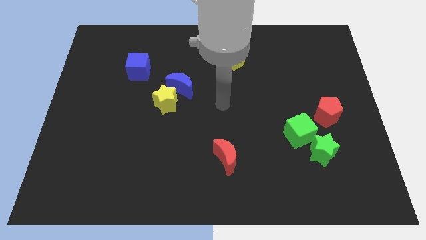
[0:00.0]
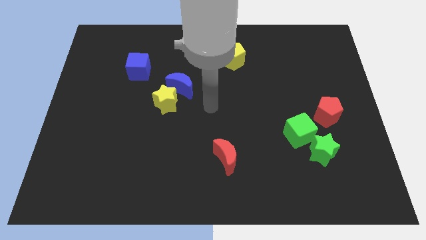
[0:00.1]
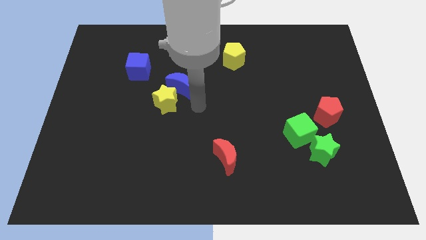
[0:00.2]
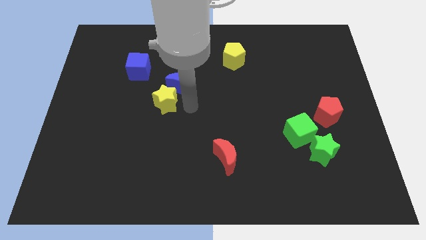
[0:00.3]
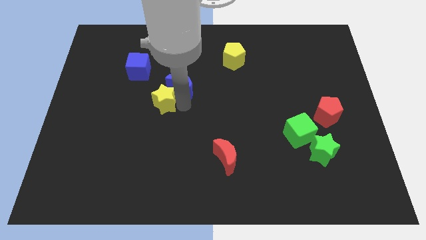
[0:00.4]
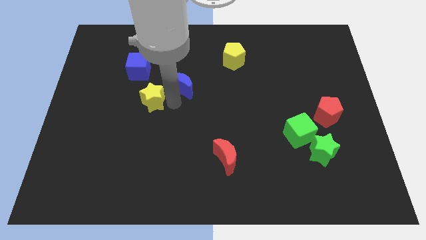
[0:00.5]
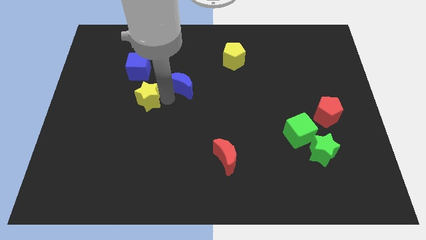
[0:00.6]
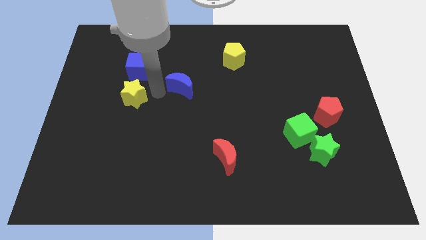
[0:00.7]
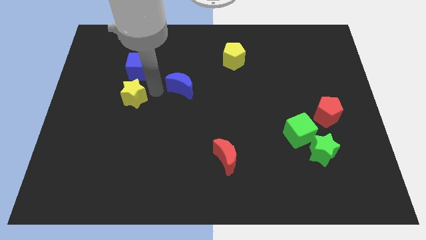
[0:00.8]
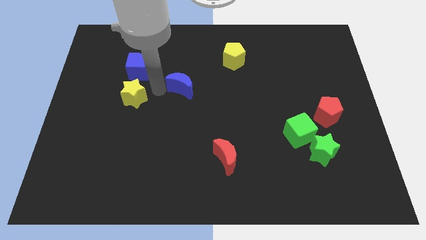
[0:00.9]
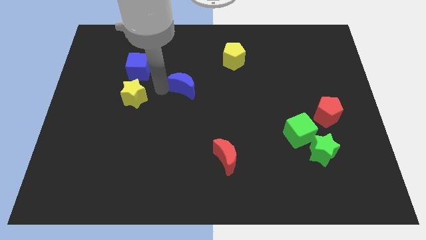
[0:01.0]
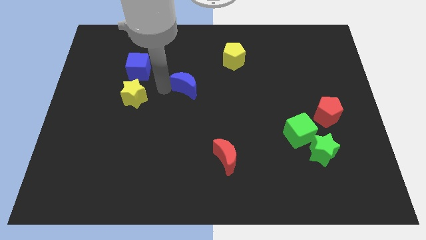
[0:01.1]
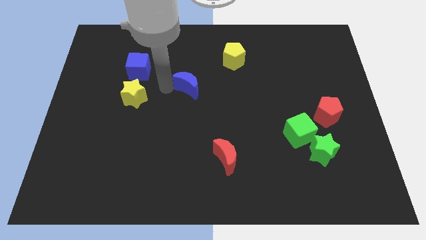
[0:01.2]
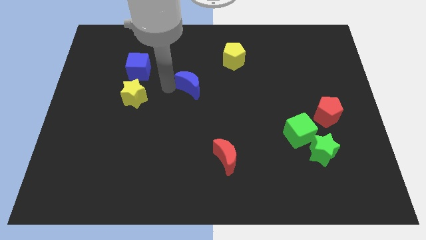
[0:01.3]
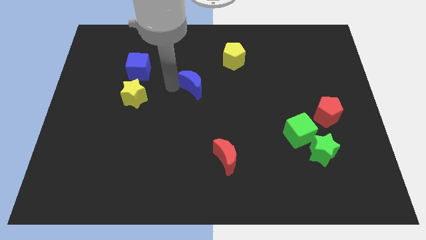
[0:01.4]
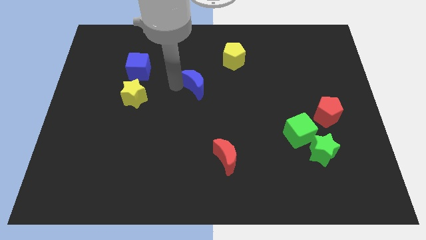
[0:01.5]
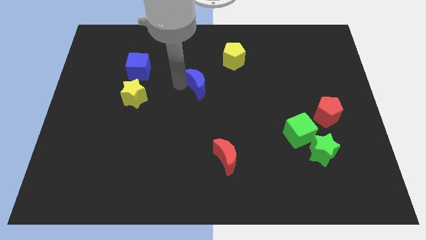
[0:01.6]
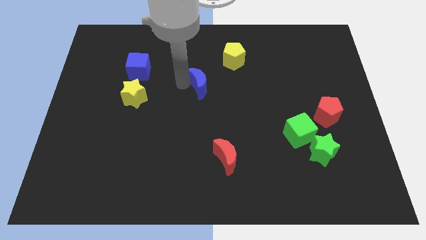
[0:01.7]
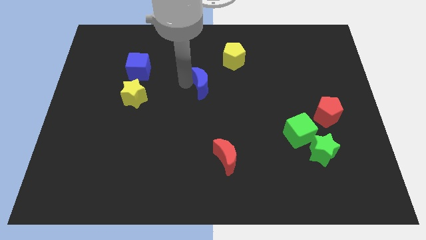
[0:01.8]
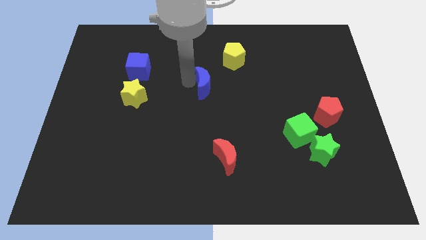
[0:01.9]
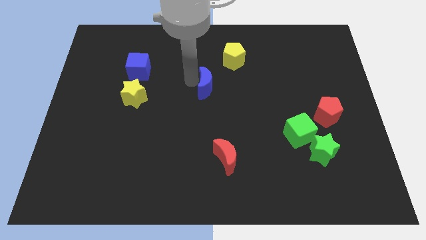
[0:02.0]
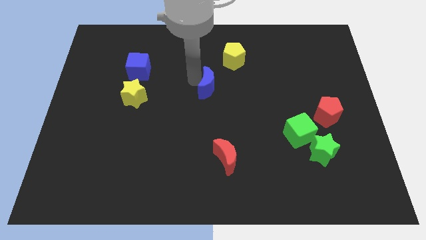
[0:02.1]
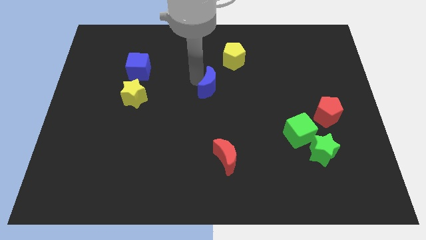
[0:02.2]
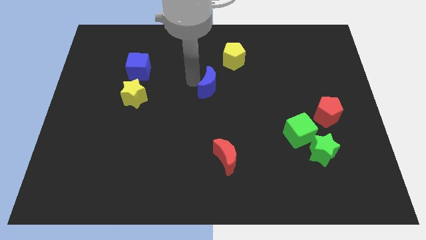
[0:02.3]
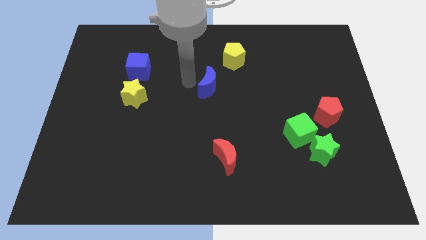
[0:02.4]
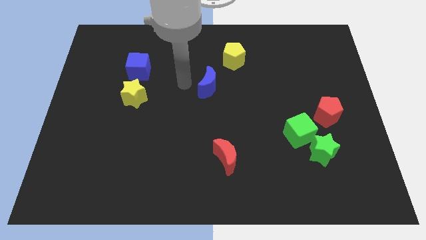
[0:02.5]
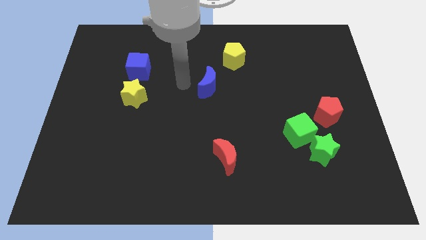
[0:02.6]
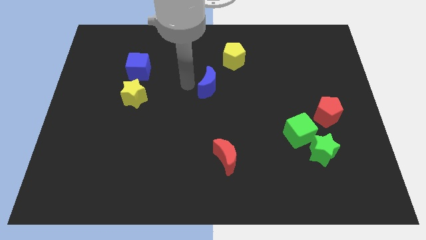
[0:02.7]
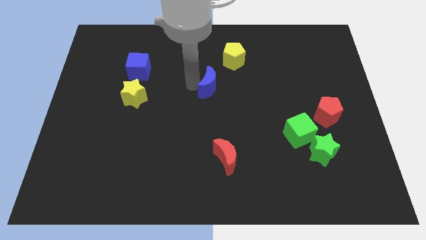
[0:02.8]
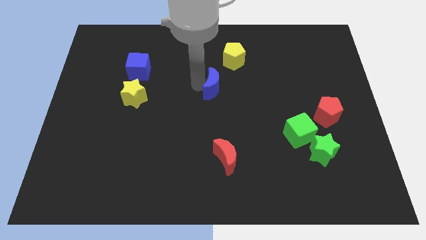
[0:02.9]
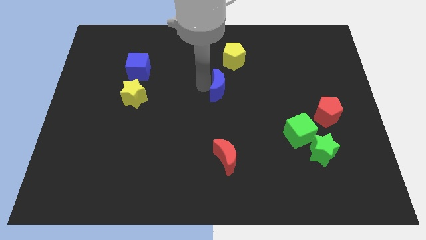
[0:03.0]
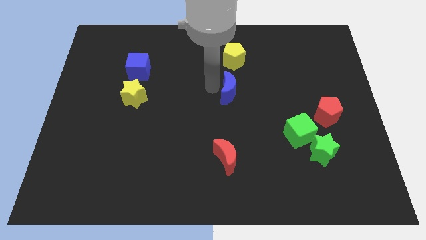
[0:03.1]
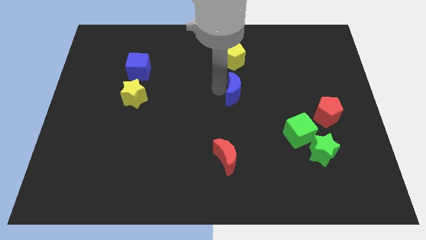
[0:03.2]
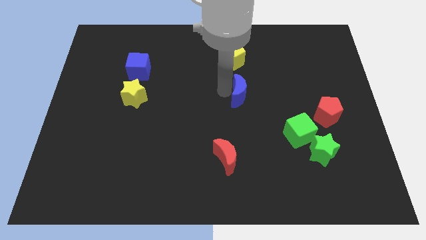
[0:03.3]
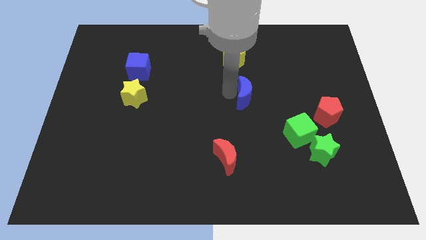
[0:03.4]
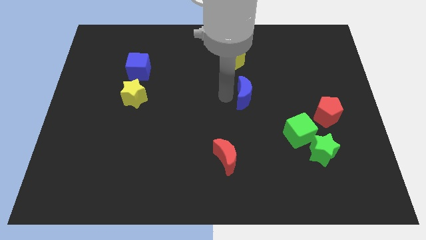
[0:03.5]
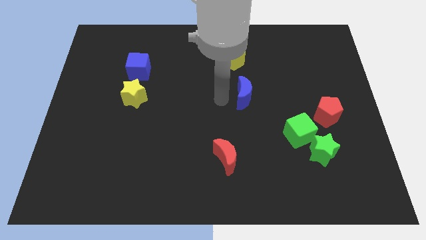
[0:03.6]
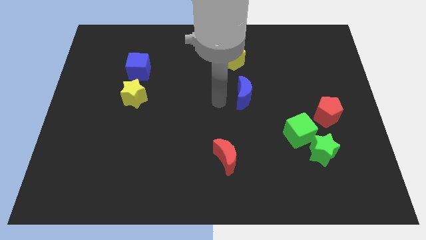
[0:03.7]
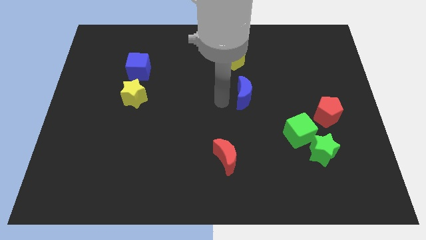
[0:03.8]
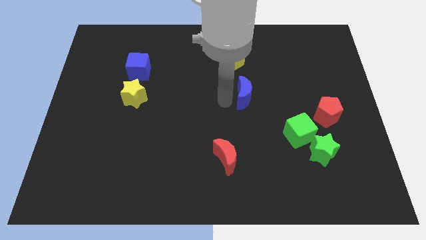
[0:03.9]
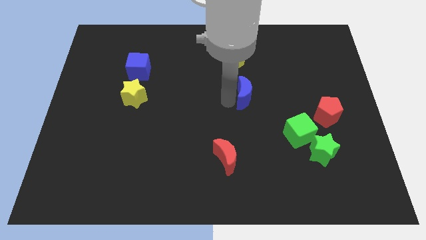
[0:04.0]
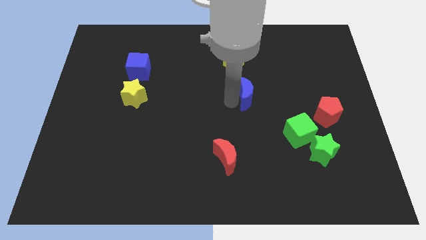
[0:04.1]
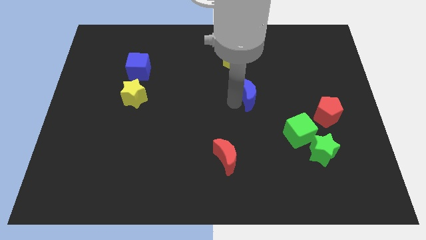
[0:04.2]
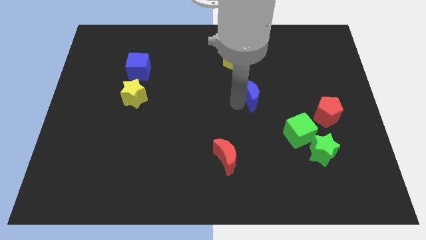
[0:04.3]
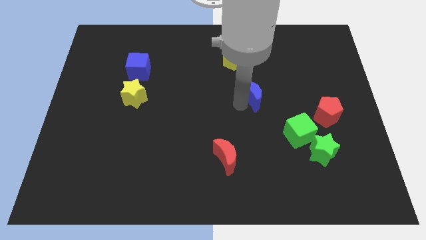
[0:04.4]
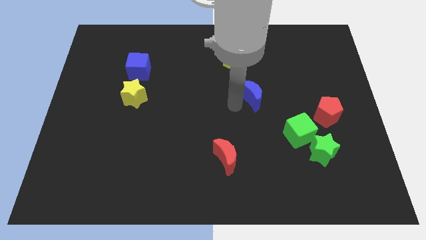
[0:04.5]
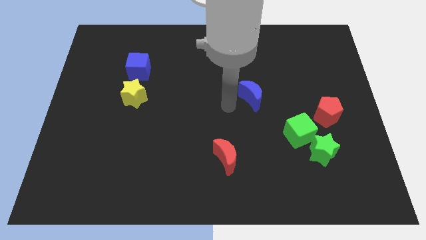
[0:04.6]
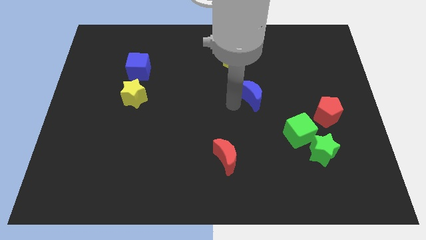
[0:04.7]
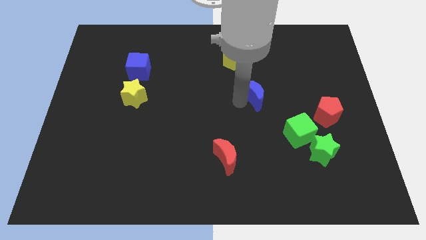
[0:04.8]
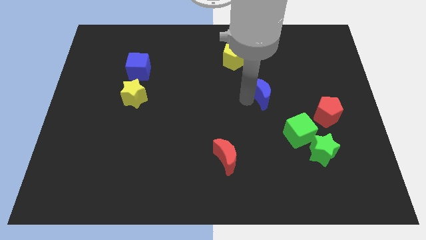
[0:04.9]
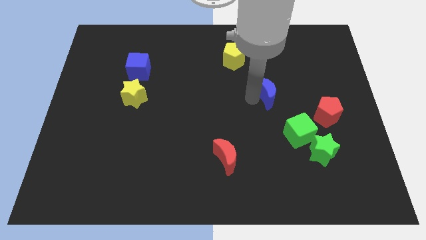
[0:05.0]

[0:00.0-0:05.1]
move the blue moon to the right

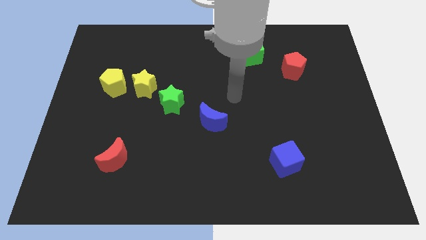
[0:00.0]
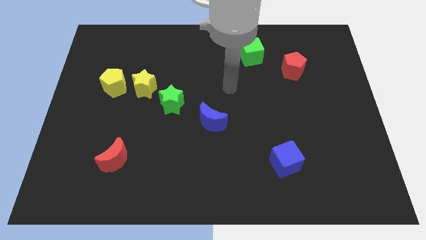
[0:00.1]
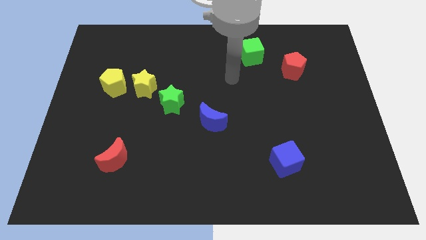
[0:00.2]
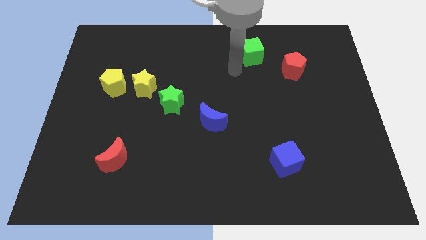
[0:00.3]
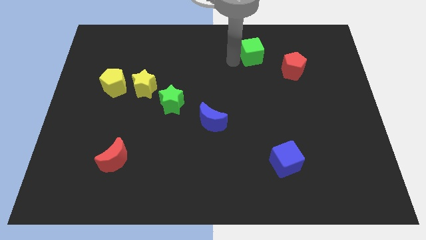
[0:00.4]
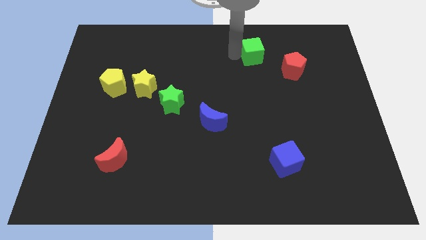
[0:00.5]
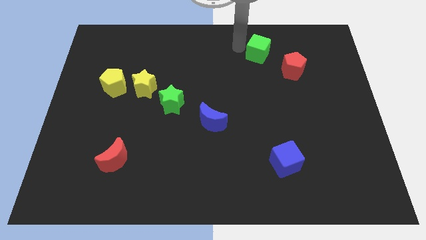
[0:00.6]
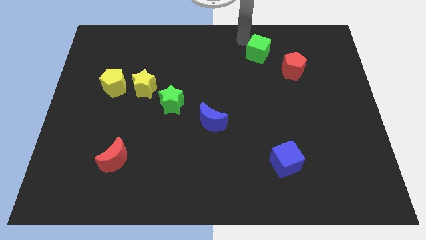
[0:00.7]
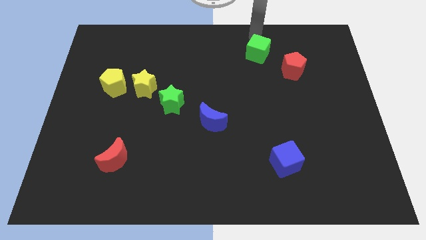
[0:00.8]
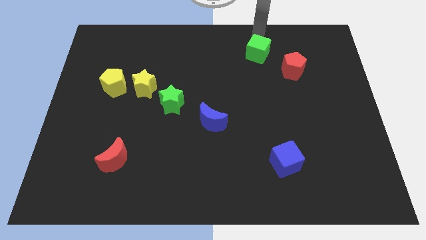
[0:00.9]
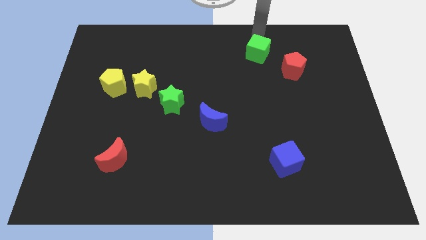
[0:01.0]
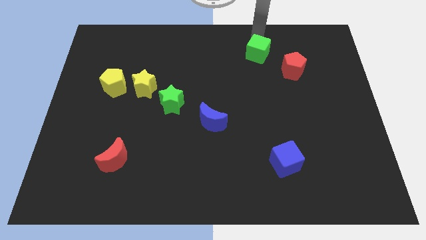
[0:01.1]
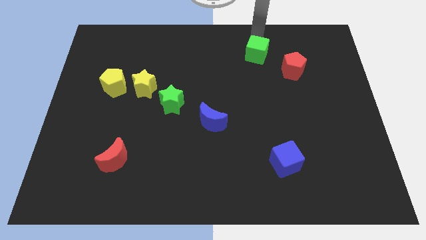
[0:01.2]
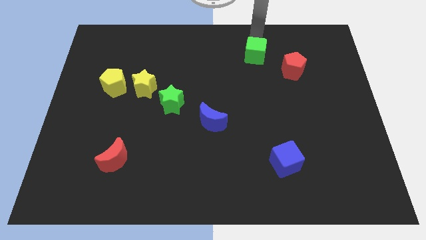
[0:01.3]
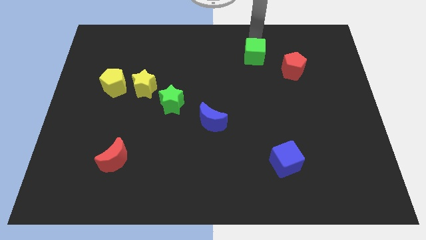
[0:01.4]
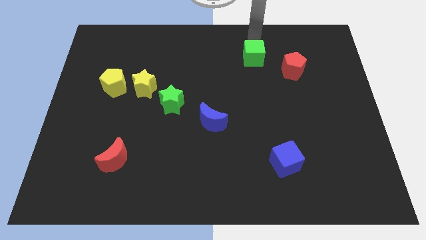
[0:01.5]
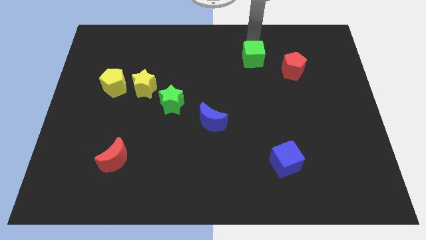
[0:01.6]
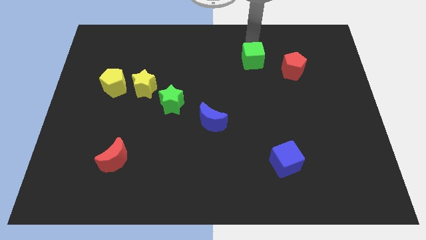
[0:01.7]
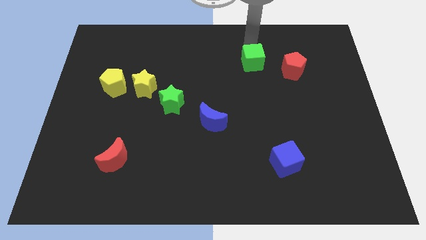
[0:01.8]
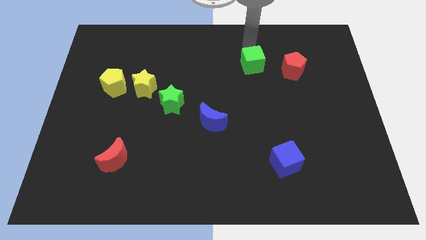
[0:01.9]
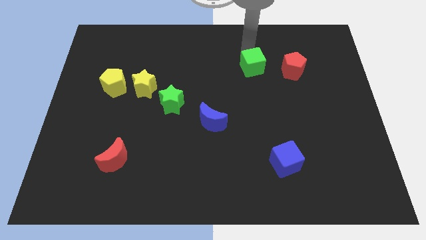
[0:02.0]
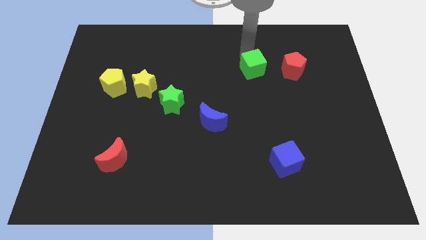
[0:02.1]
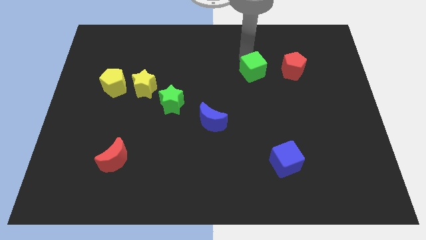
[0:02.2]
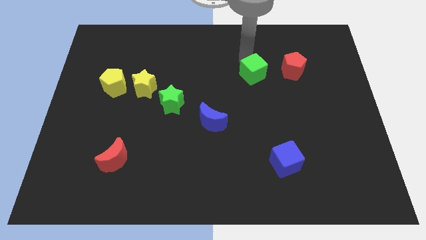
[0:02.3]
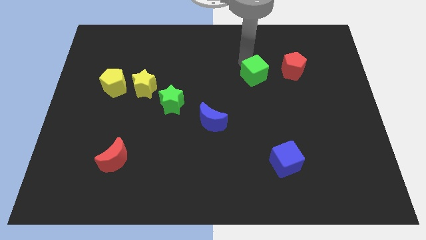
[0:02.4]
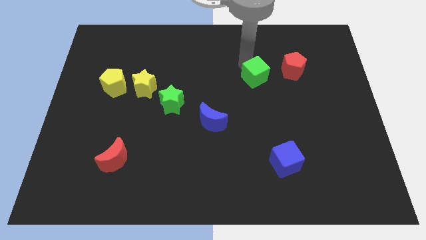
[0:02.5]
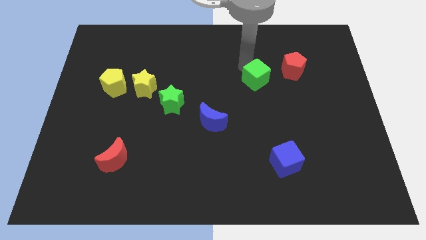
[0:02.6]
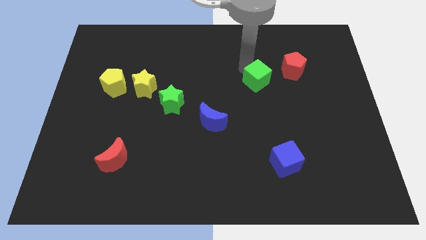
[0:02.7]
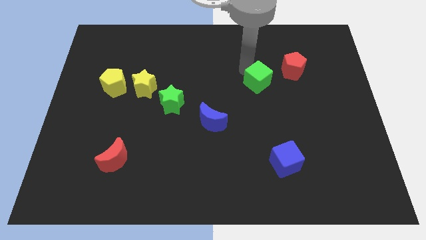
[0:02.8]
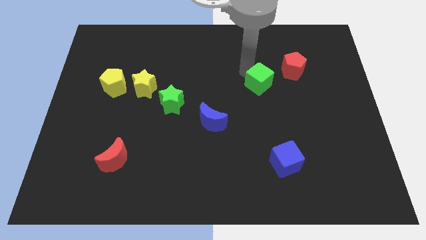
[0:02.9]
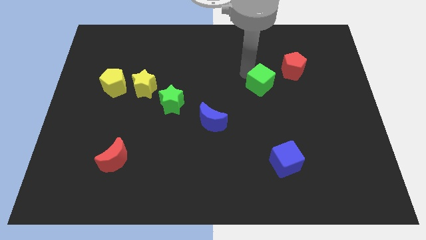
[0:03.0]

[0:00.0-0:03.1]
slightly push the green cube down and to the right diagonally

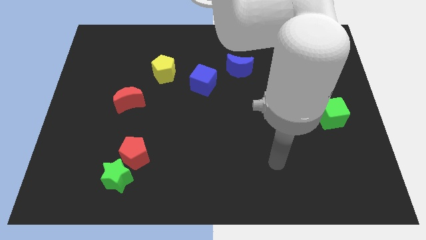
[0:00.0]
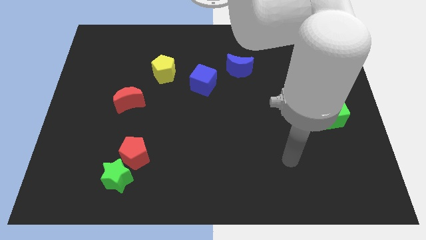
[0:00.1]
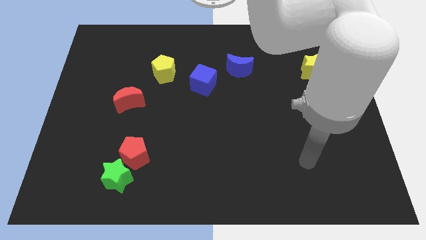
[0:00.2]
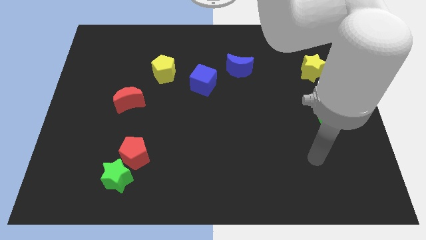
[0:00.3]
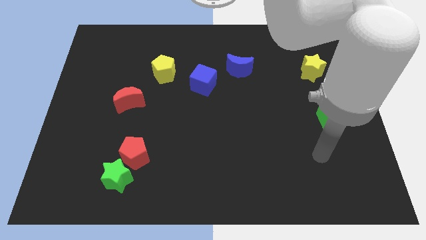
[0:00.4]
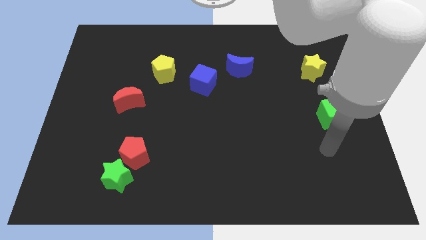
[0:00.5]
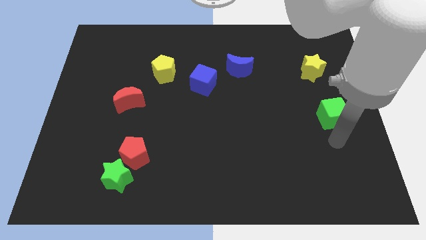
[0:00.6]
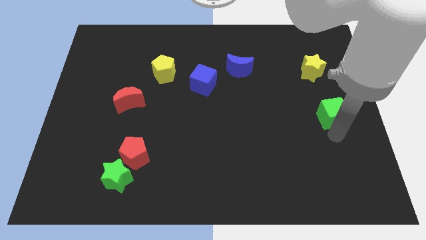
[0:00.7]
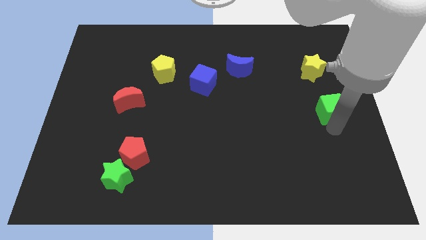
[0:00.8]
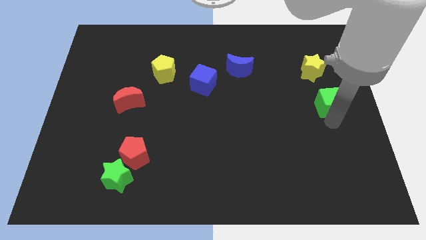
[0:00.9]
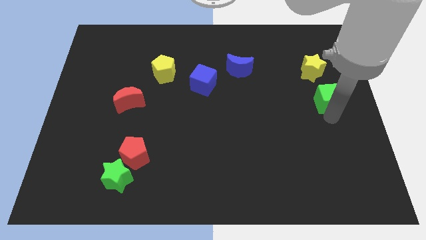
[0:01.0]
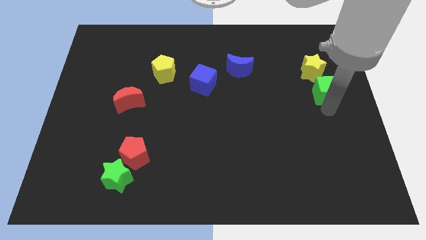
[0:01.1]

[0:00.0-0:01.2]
slightly move the green cube upwards
